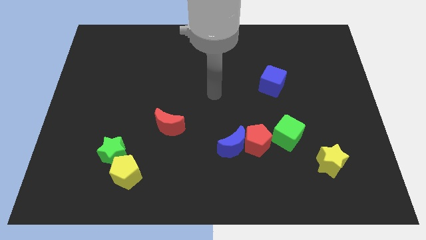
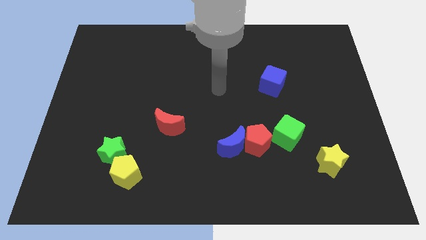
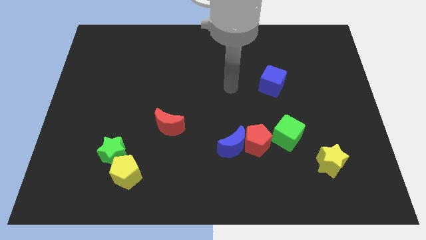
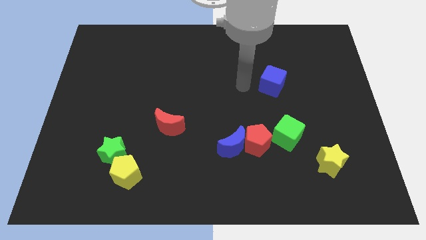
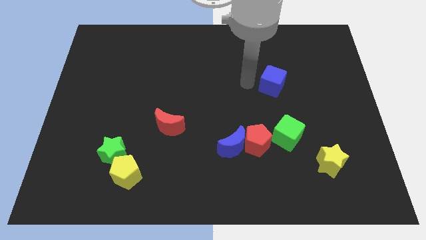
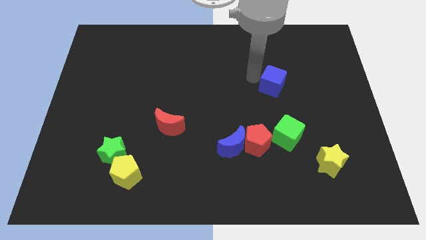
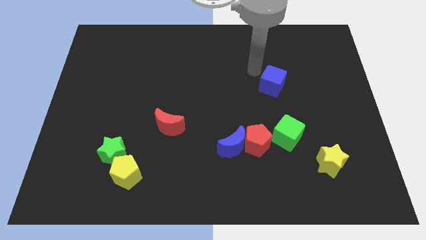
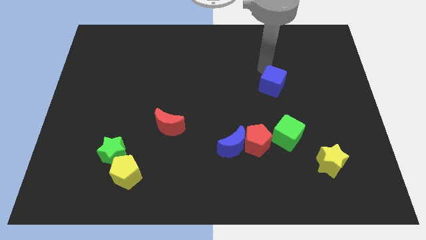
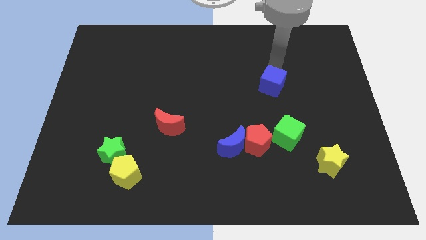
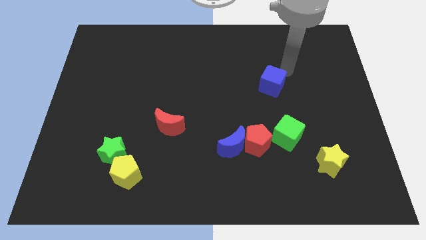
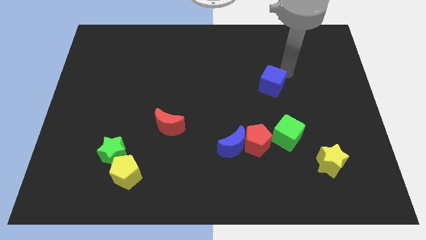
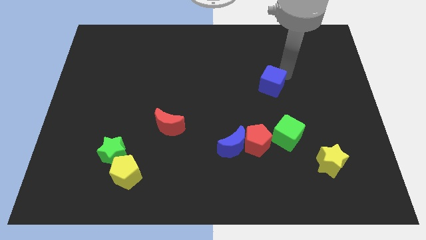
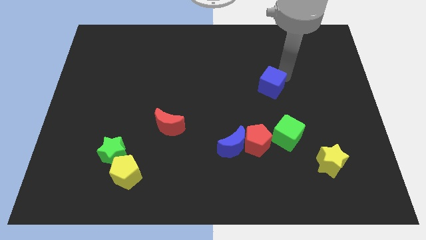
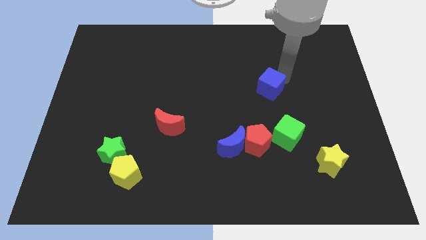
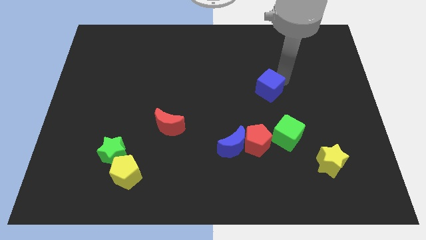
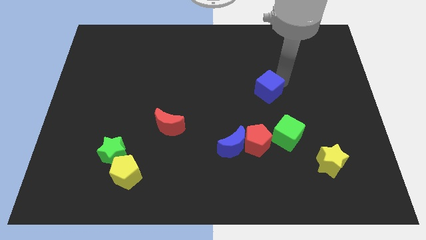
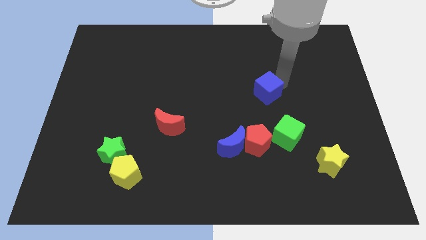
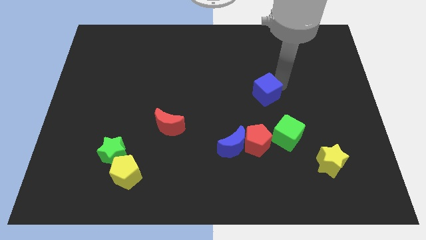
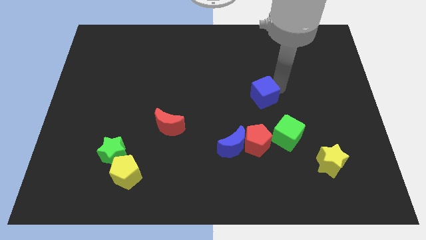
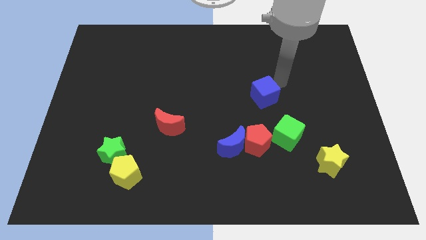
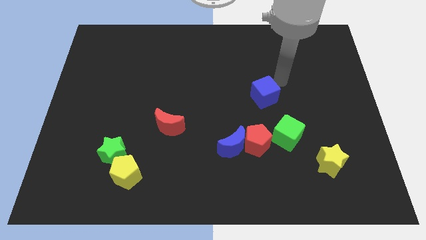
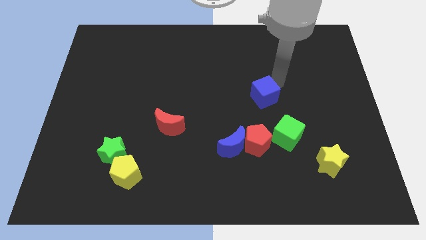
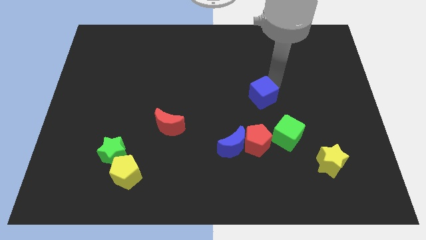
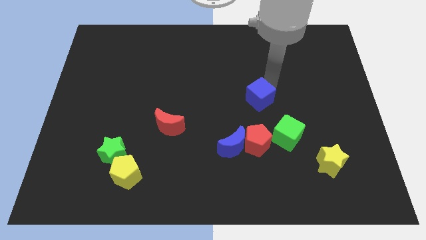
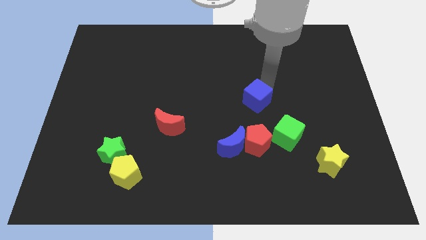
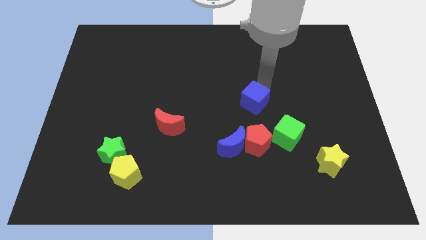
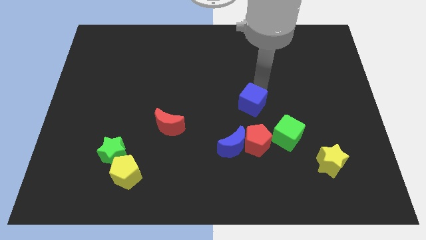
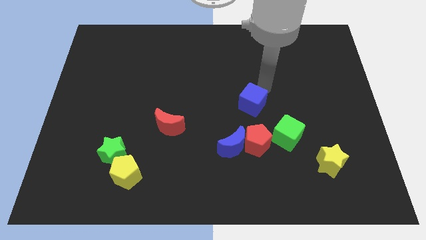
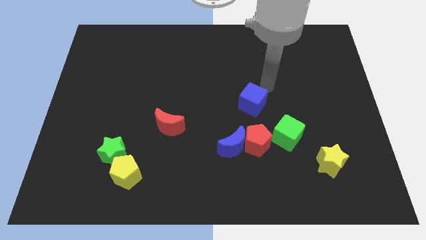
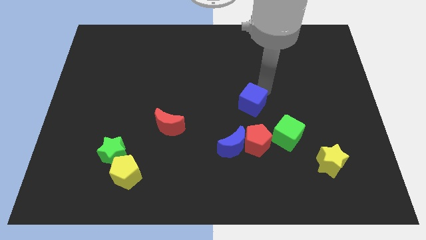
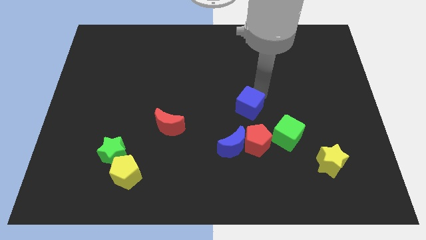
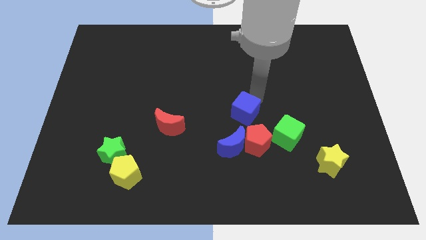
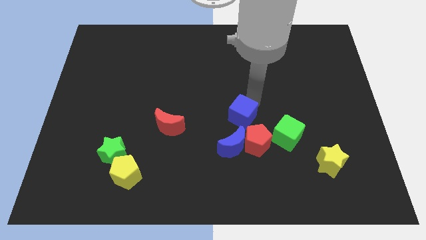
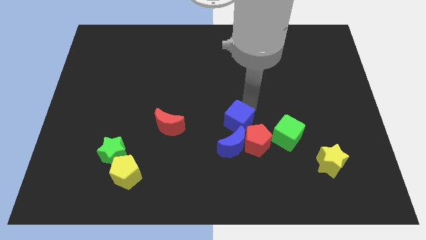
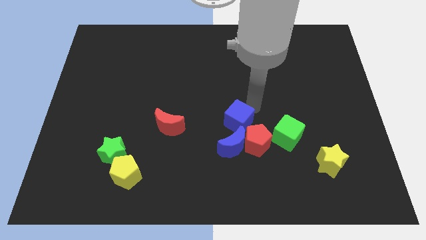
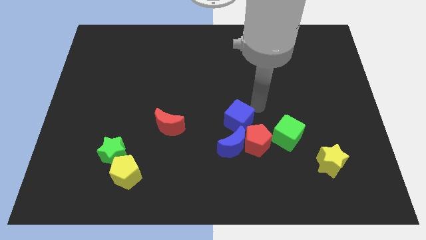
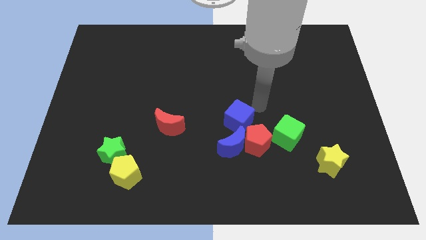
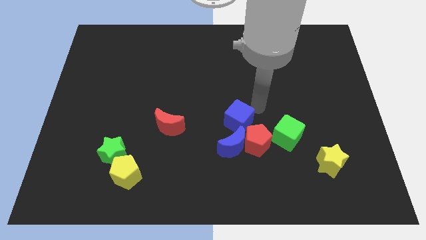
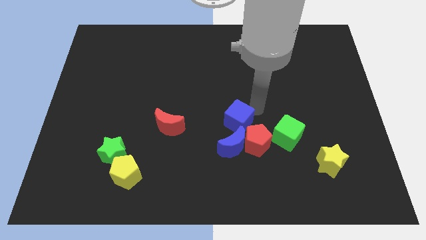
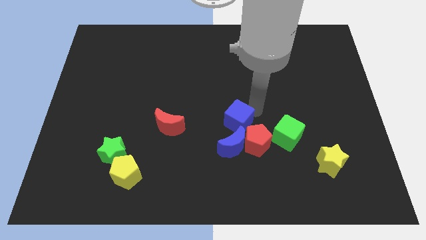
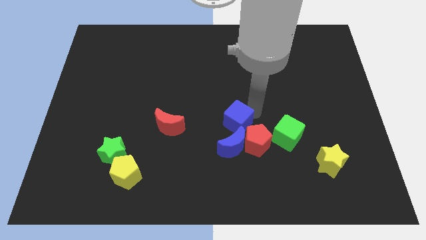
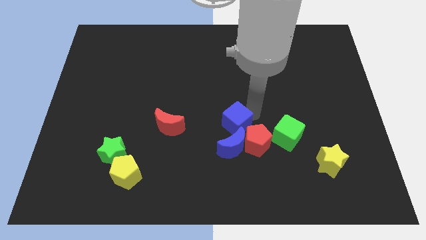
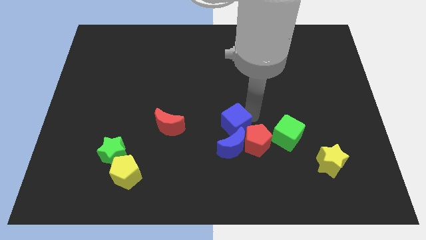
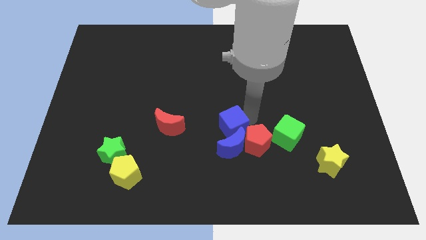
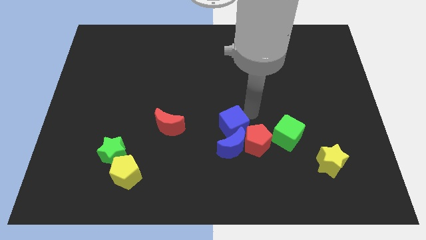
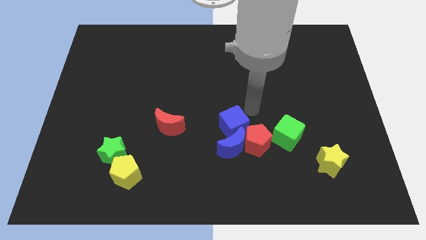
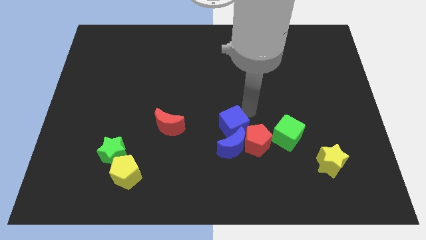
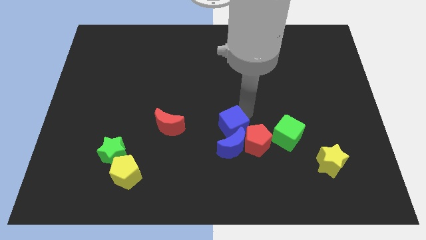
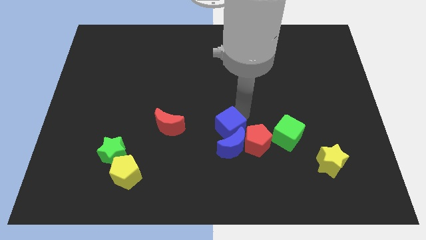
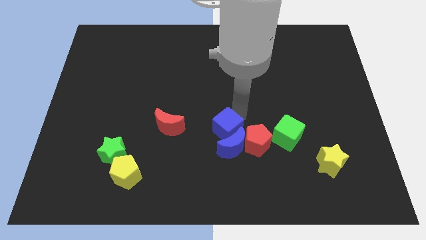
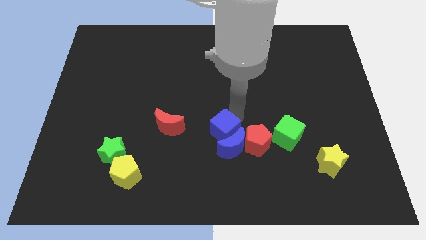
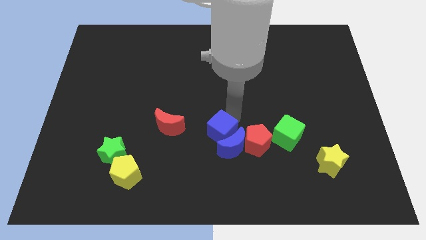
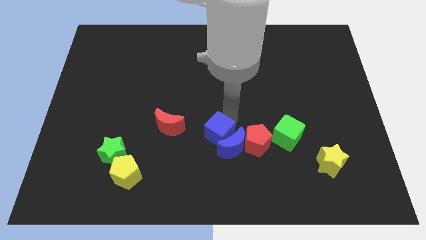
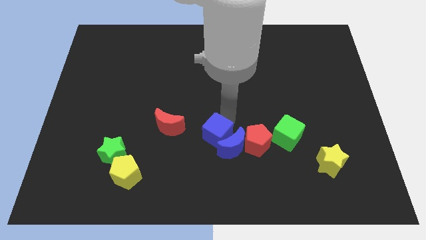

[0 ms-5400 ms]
slide the blue cube downwards and then left

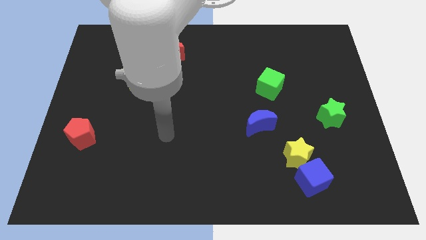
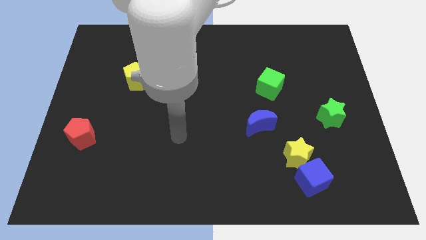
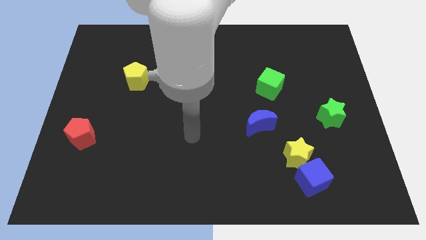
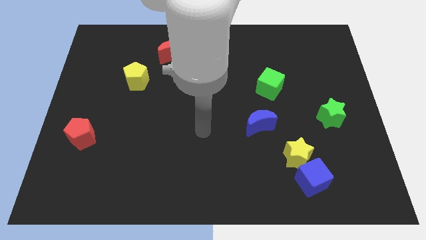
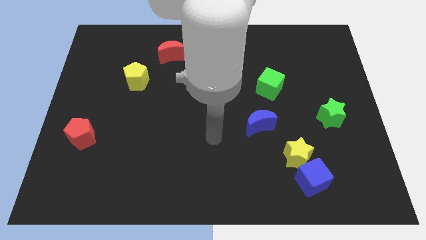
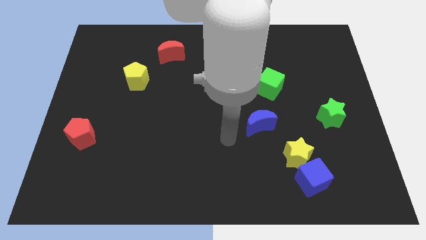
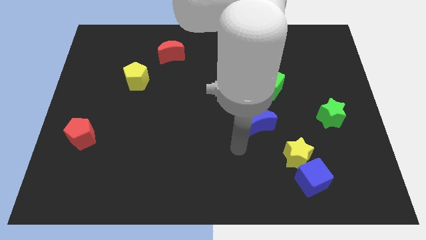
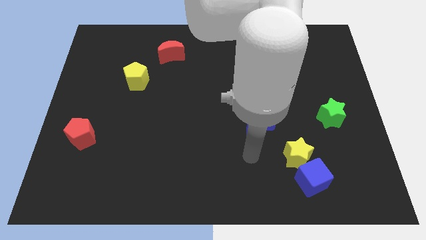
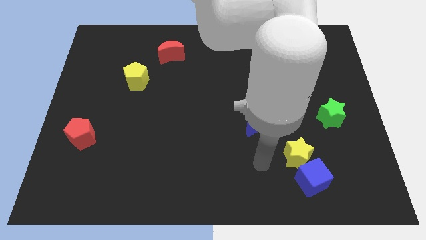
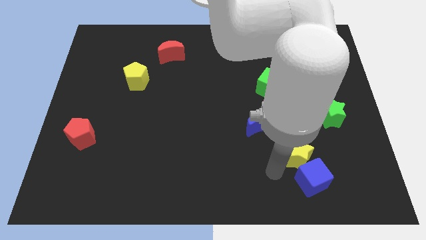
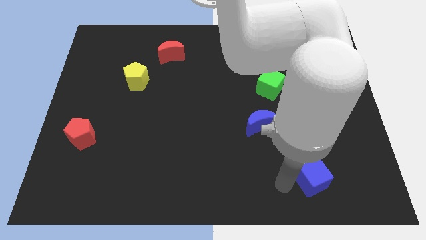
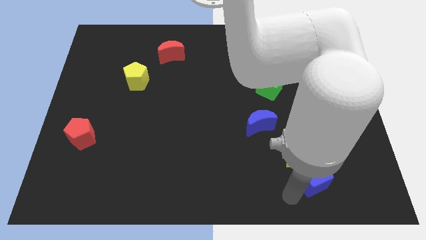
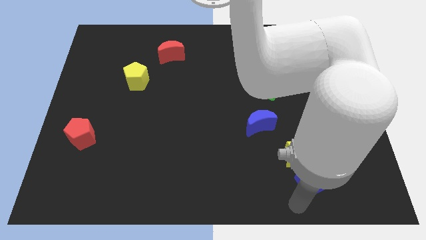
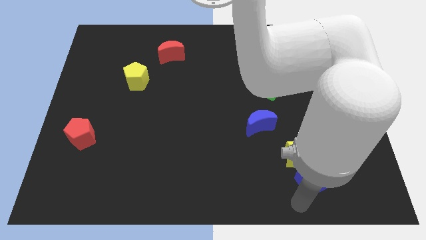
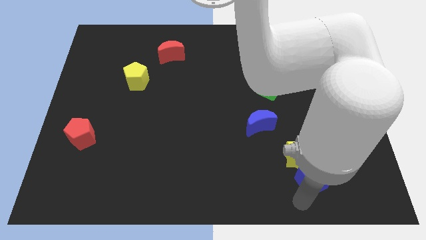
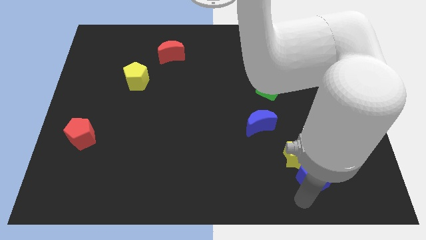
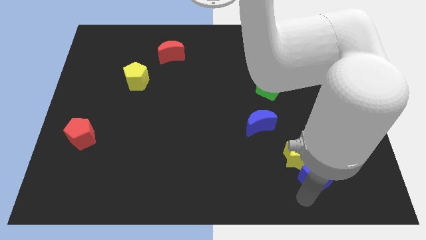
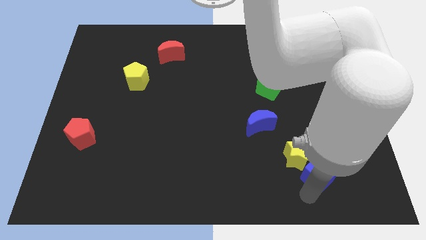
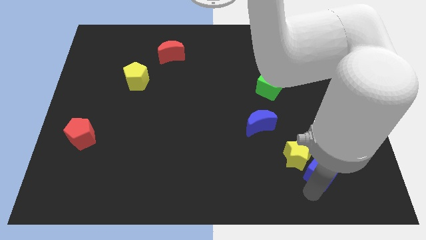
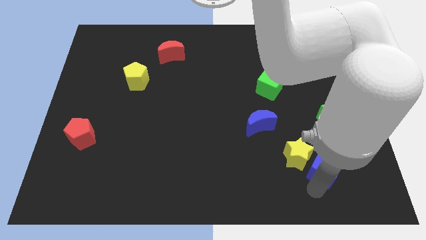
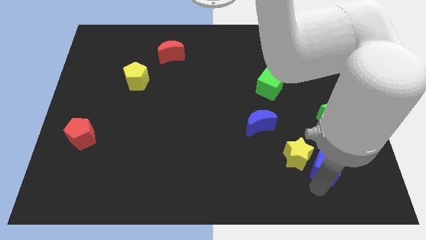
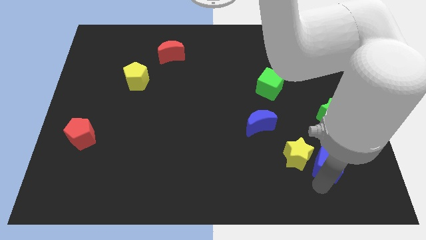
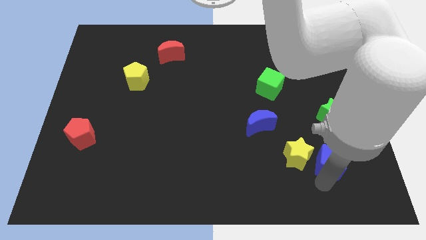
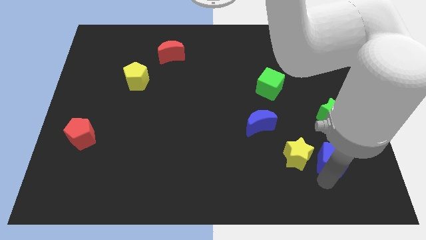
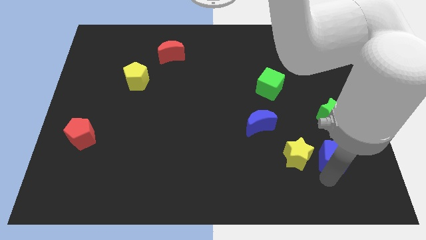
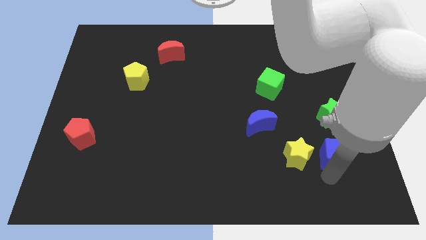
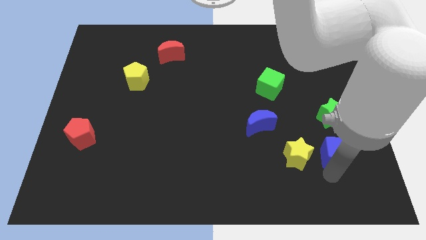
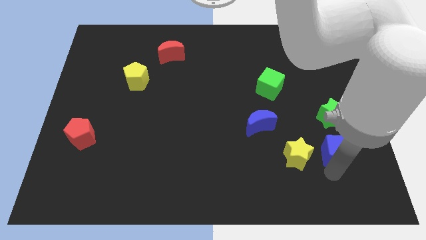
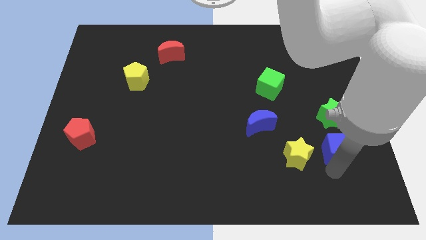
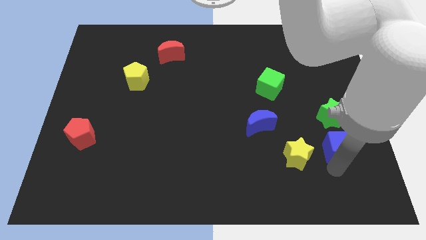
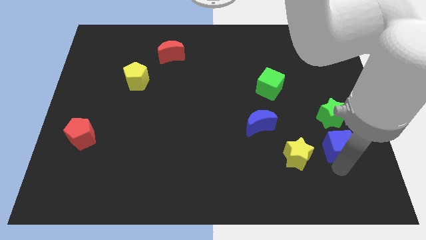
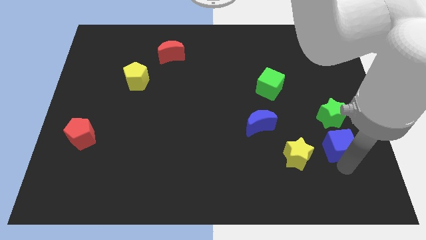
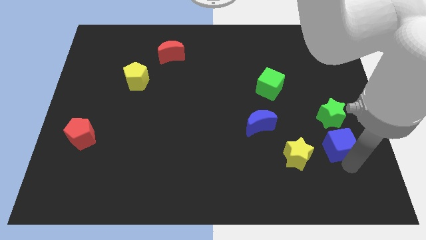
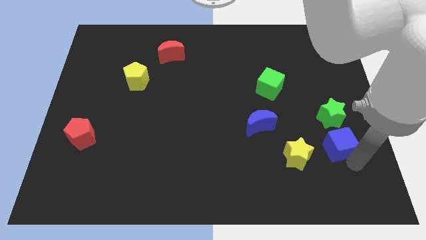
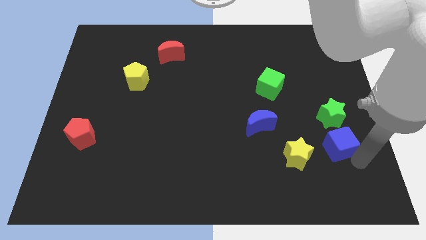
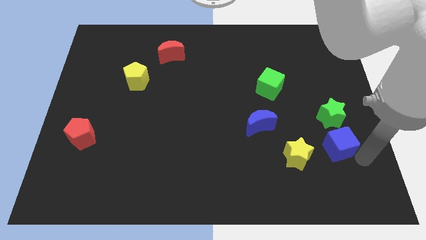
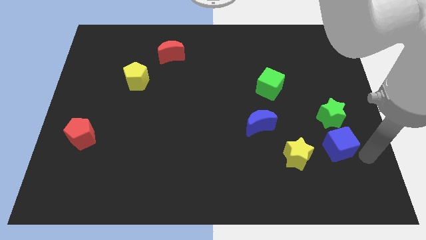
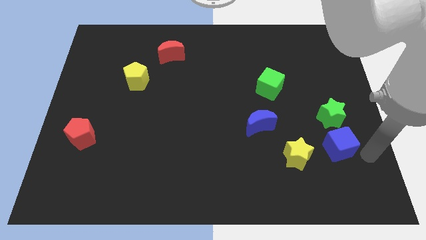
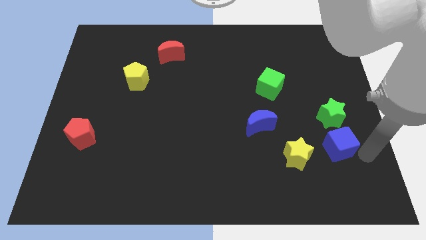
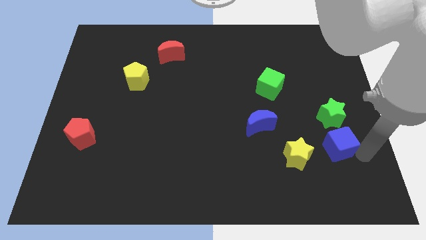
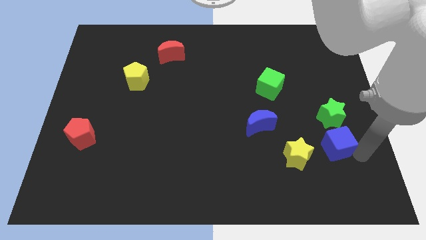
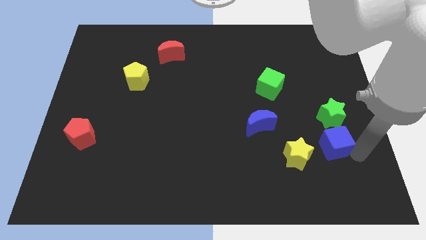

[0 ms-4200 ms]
push the blue cube a little bit upwards
